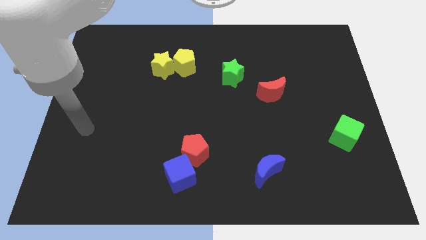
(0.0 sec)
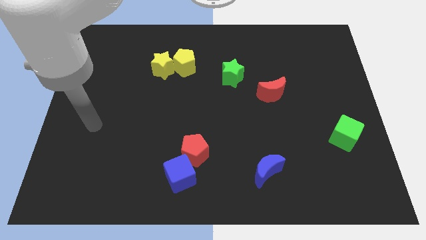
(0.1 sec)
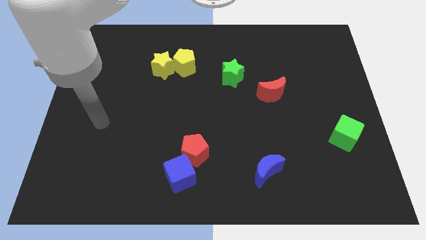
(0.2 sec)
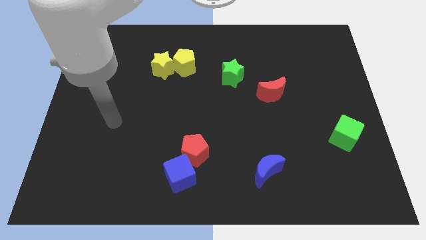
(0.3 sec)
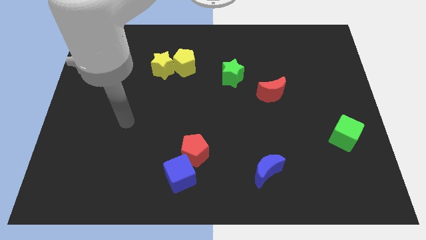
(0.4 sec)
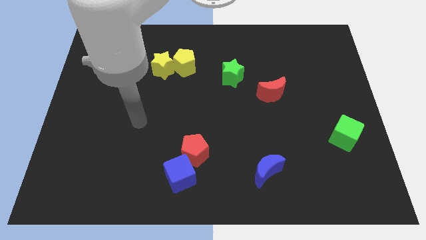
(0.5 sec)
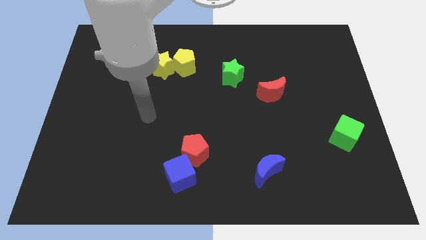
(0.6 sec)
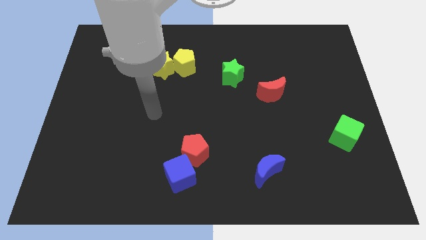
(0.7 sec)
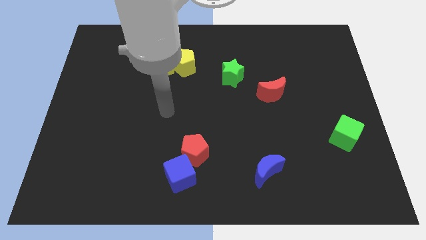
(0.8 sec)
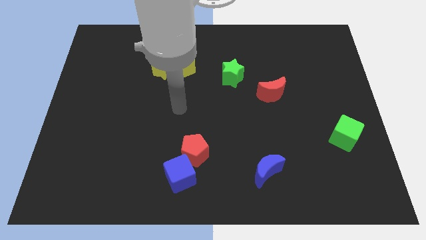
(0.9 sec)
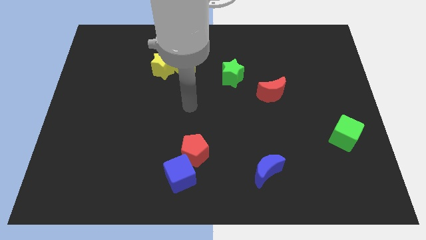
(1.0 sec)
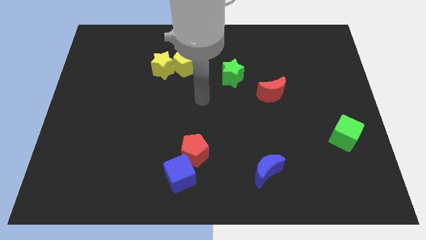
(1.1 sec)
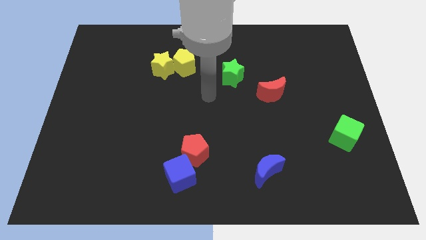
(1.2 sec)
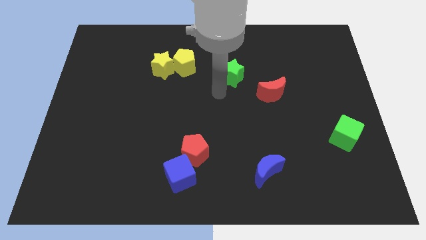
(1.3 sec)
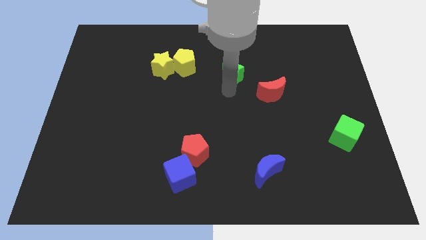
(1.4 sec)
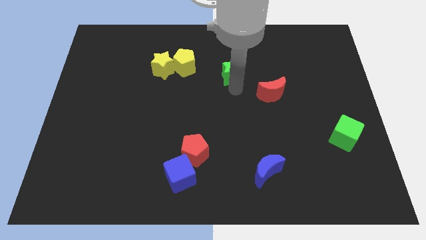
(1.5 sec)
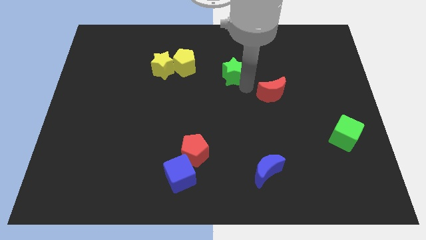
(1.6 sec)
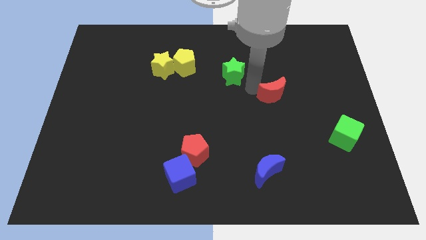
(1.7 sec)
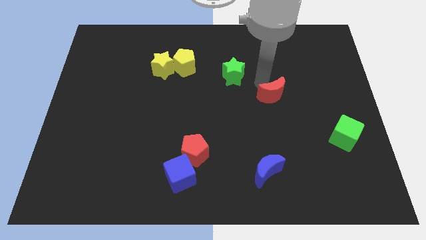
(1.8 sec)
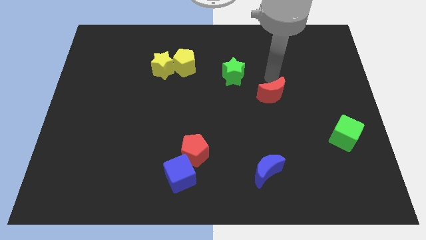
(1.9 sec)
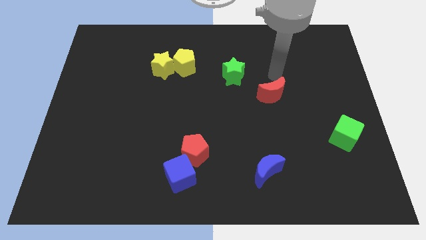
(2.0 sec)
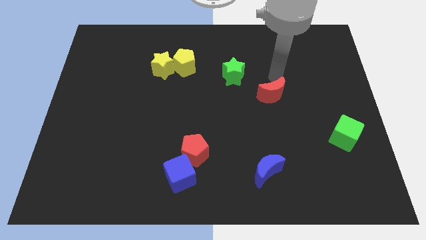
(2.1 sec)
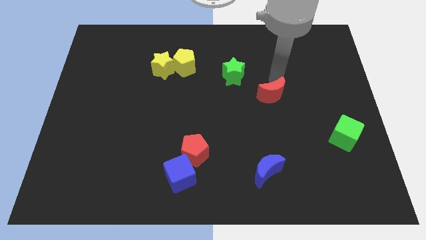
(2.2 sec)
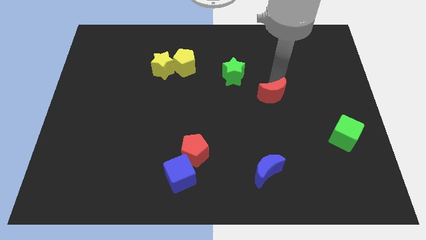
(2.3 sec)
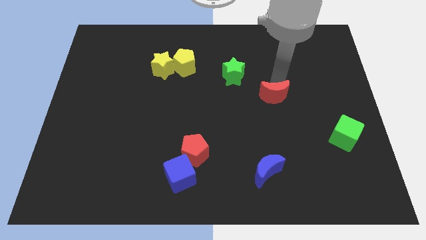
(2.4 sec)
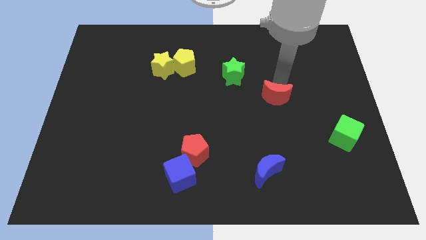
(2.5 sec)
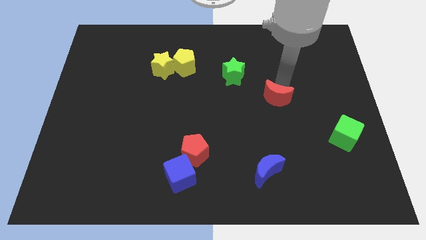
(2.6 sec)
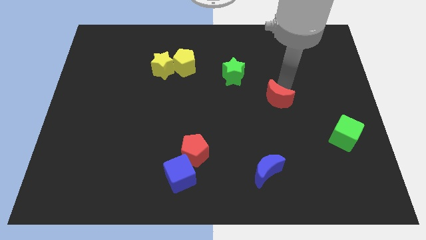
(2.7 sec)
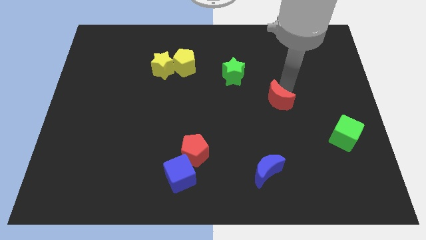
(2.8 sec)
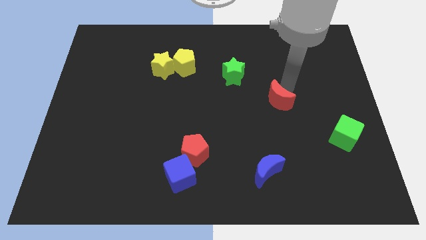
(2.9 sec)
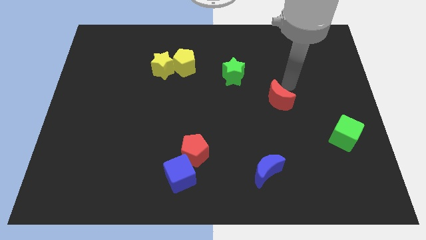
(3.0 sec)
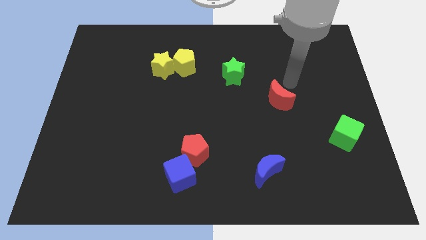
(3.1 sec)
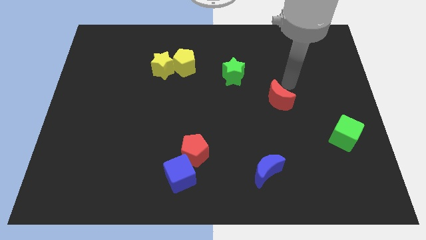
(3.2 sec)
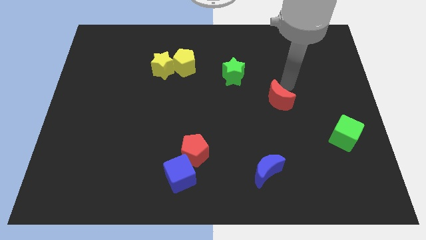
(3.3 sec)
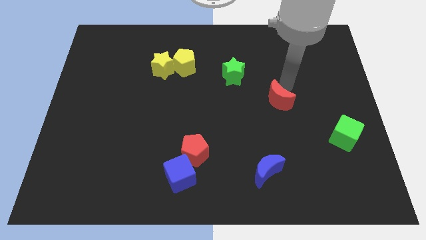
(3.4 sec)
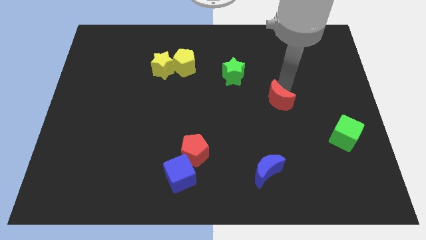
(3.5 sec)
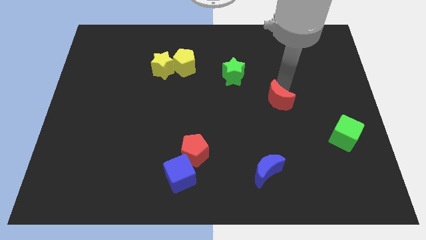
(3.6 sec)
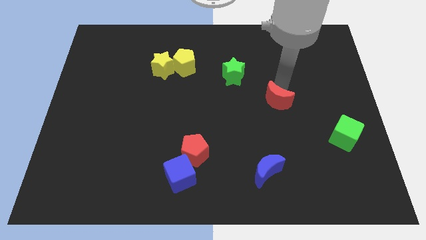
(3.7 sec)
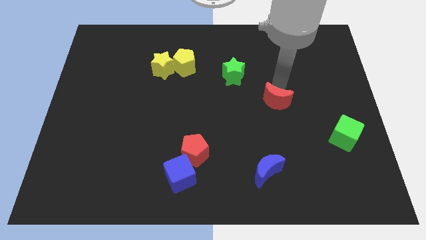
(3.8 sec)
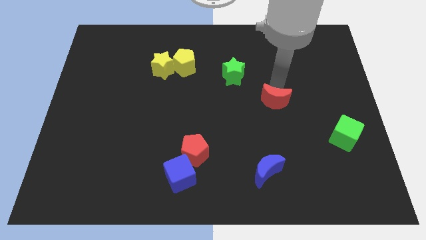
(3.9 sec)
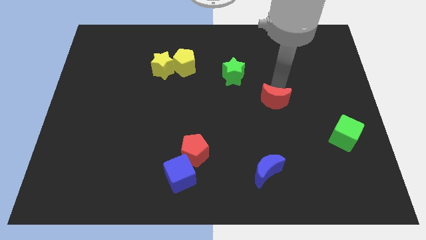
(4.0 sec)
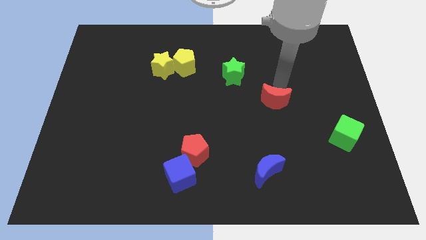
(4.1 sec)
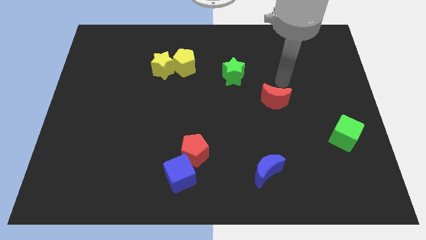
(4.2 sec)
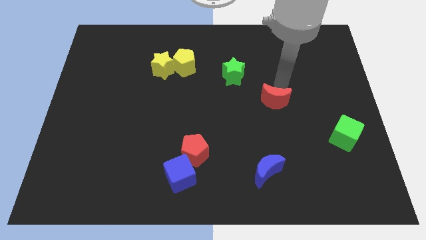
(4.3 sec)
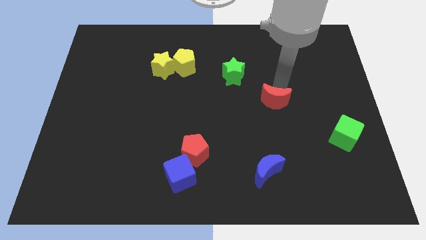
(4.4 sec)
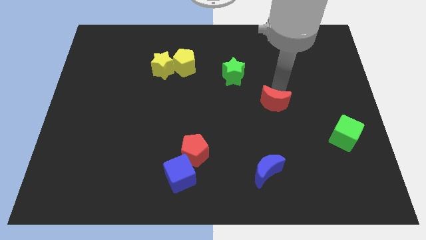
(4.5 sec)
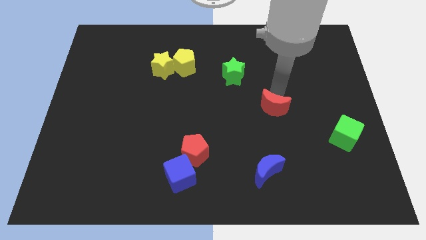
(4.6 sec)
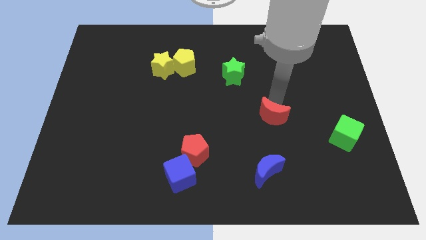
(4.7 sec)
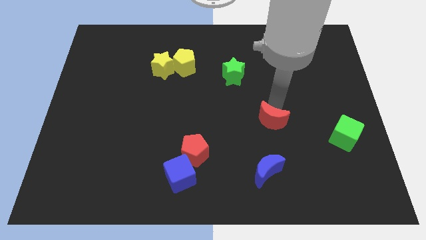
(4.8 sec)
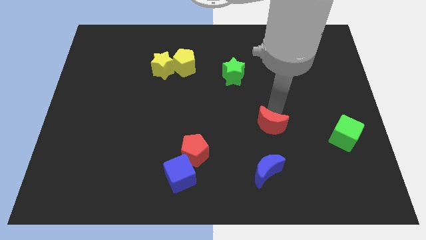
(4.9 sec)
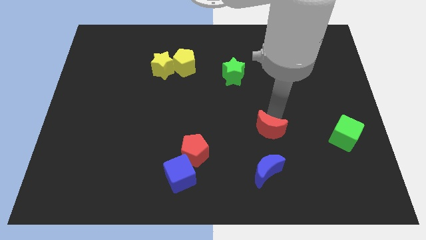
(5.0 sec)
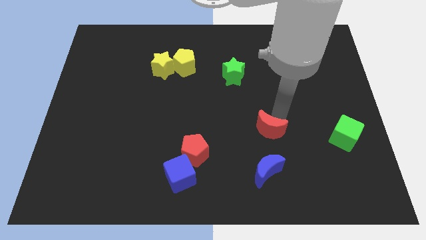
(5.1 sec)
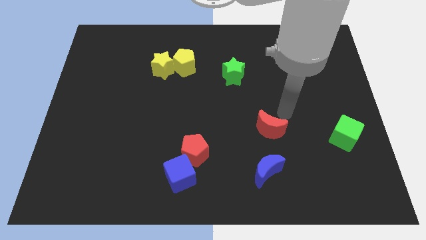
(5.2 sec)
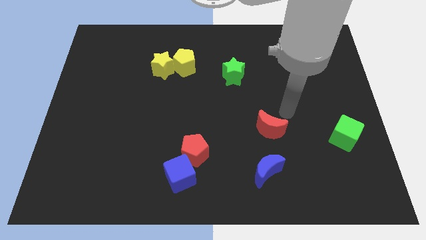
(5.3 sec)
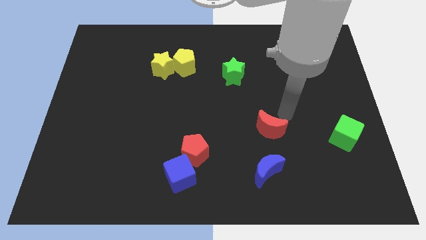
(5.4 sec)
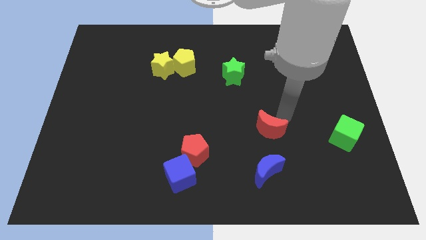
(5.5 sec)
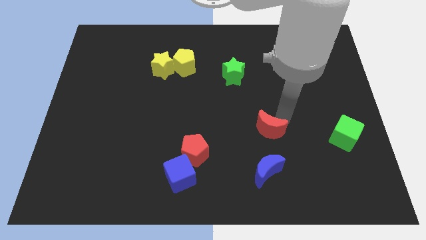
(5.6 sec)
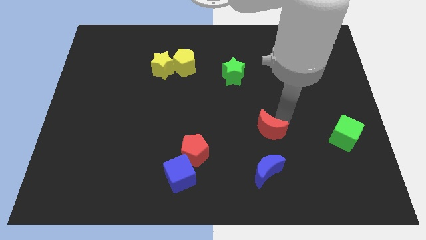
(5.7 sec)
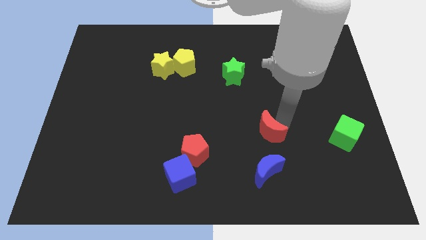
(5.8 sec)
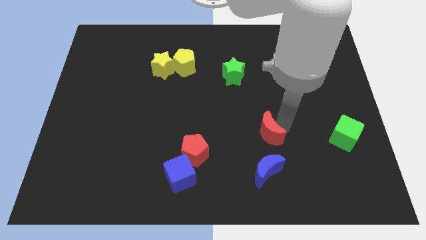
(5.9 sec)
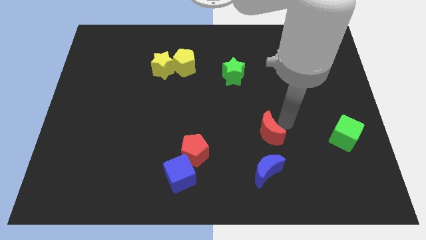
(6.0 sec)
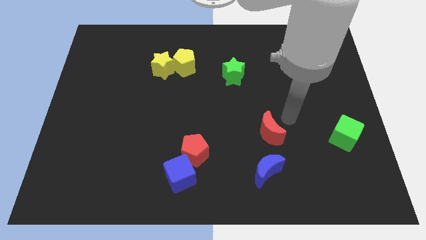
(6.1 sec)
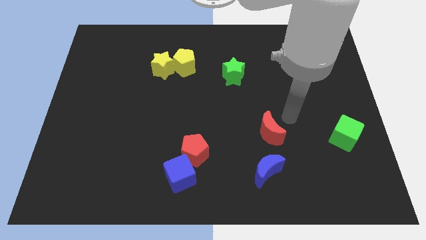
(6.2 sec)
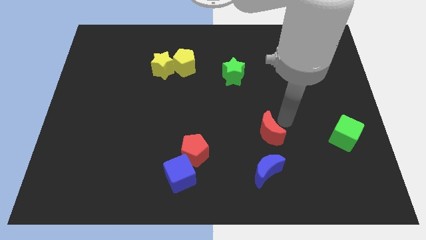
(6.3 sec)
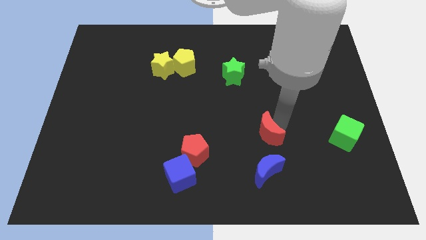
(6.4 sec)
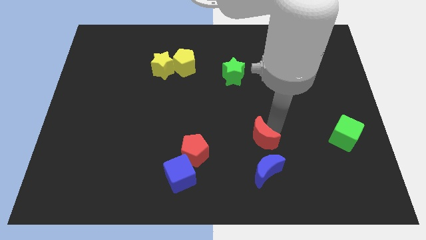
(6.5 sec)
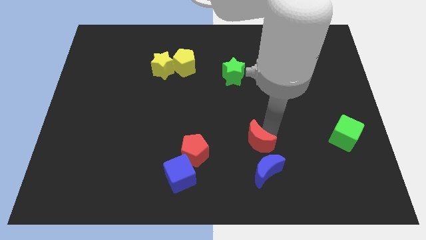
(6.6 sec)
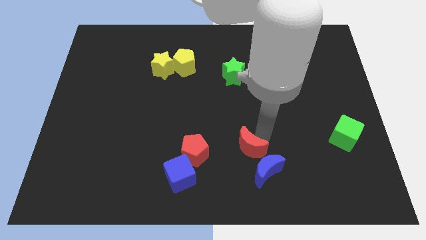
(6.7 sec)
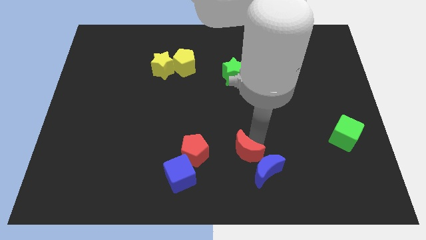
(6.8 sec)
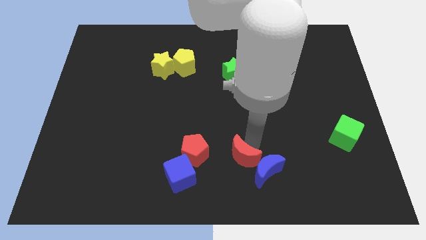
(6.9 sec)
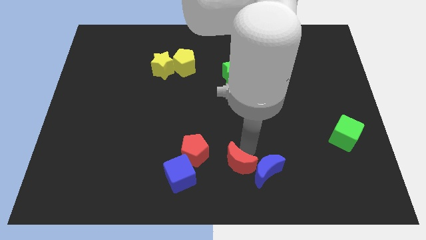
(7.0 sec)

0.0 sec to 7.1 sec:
slide the red moon to the bottom
